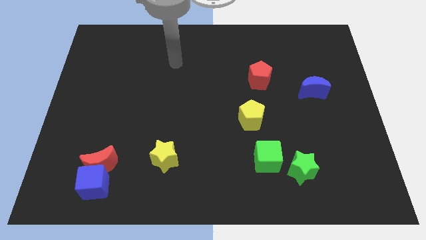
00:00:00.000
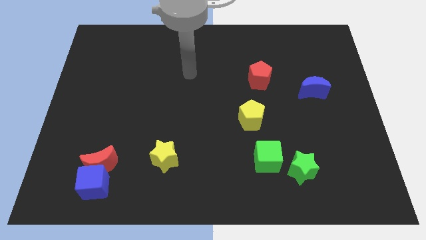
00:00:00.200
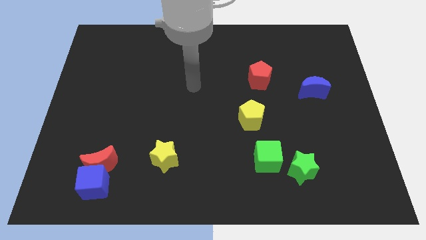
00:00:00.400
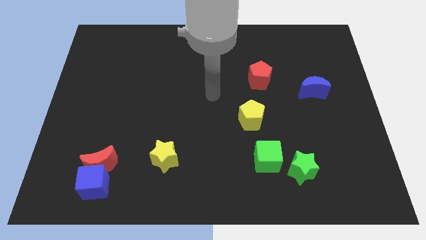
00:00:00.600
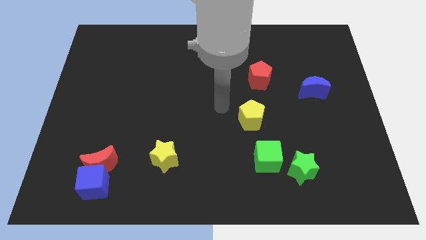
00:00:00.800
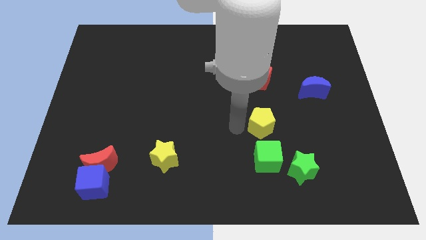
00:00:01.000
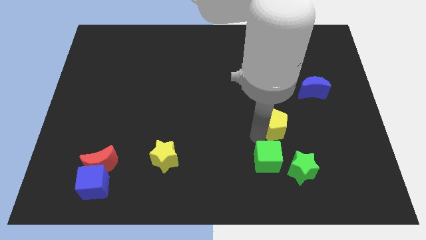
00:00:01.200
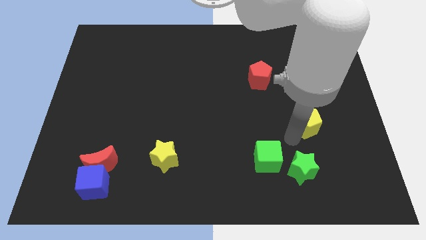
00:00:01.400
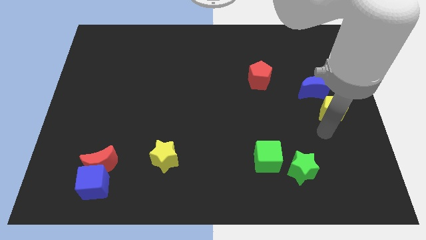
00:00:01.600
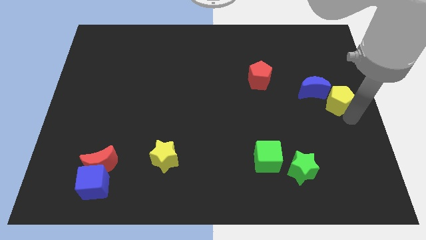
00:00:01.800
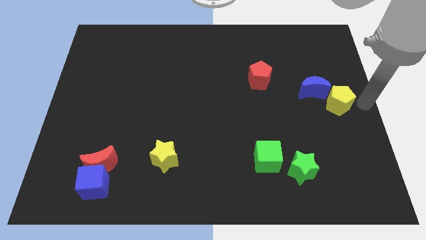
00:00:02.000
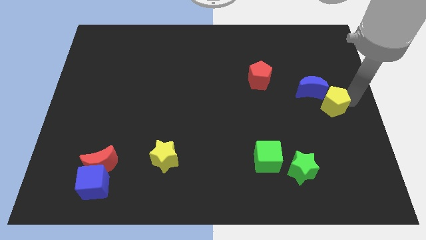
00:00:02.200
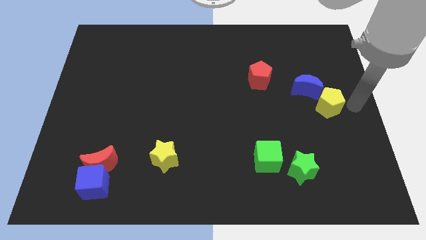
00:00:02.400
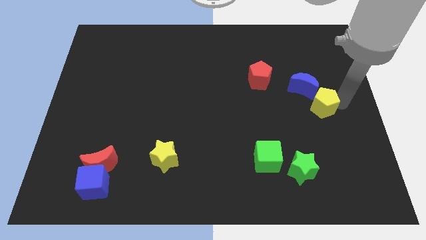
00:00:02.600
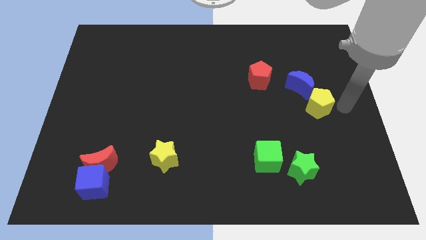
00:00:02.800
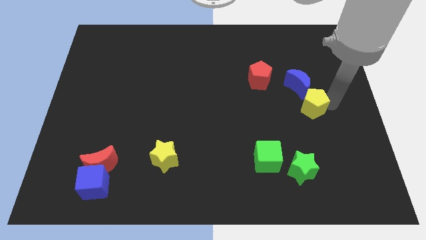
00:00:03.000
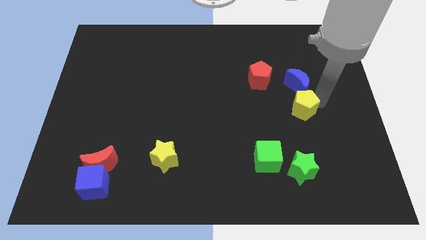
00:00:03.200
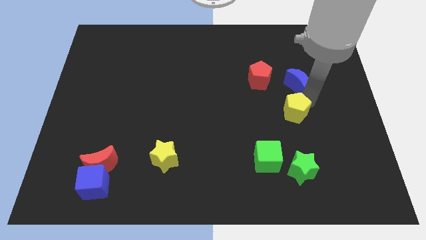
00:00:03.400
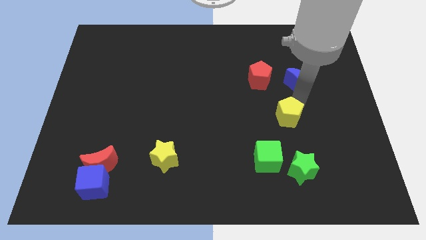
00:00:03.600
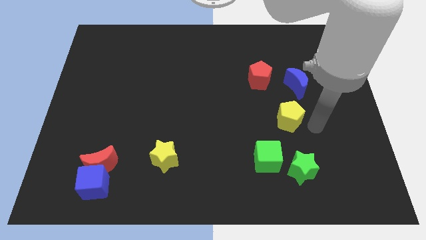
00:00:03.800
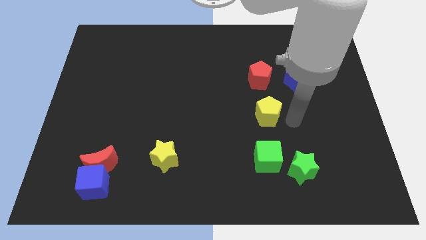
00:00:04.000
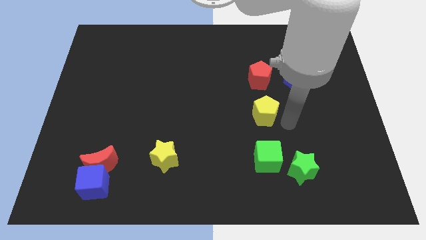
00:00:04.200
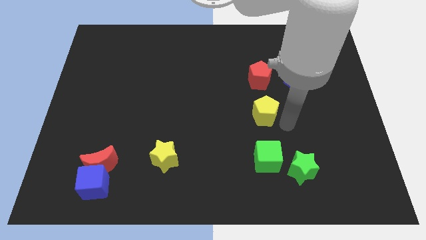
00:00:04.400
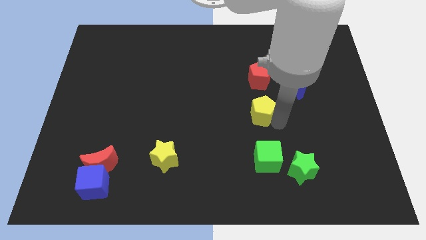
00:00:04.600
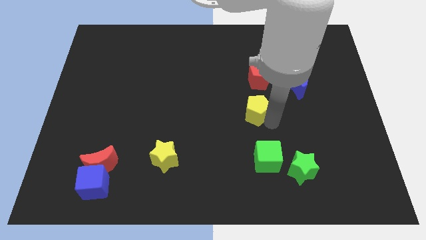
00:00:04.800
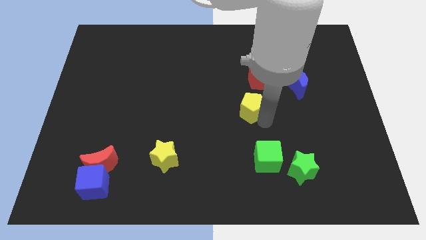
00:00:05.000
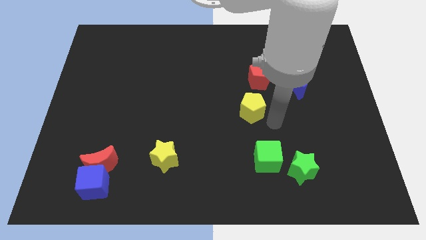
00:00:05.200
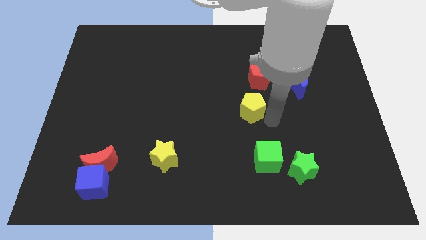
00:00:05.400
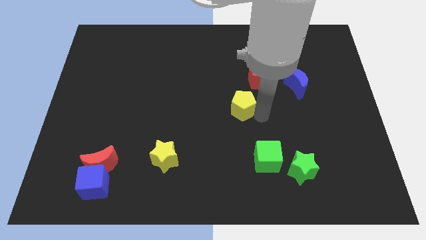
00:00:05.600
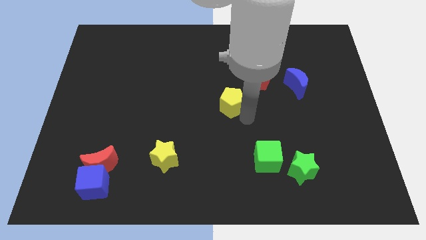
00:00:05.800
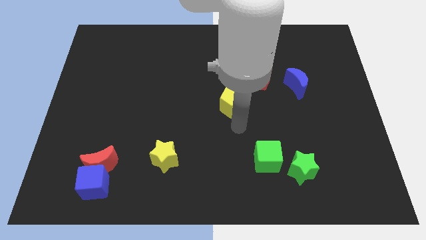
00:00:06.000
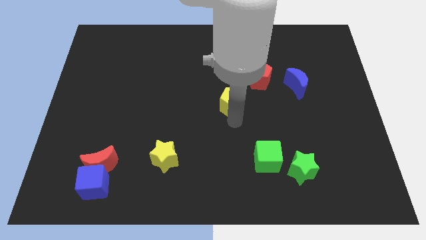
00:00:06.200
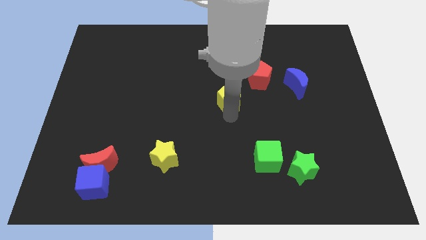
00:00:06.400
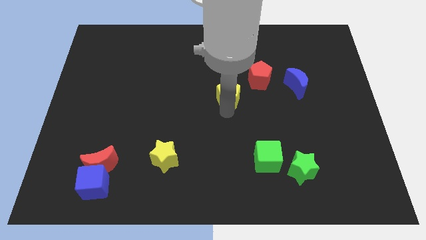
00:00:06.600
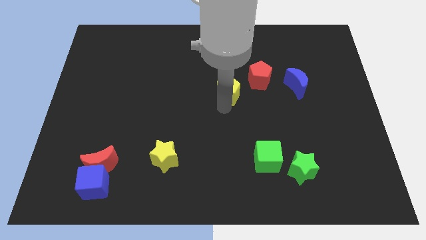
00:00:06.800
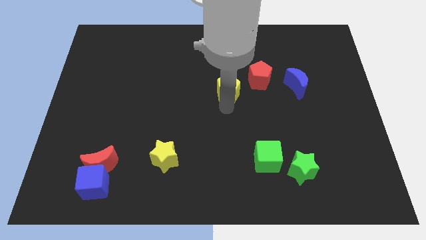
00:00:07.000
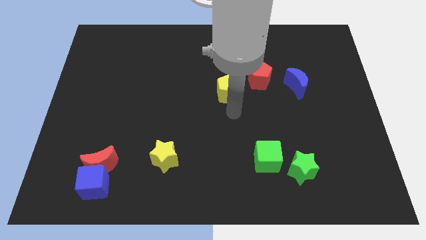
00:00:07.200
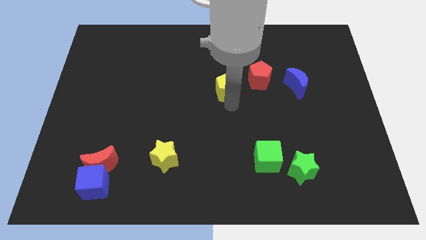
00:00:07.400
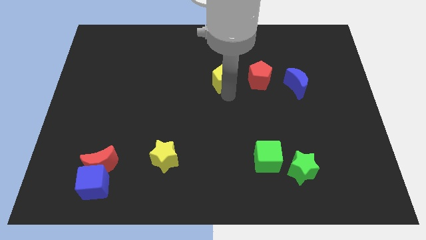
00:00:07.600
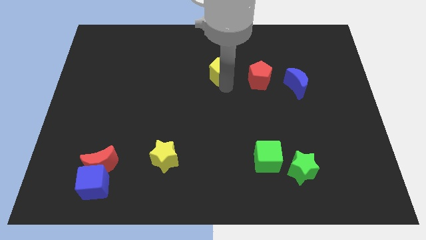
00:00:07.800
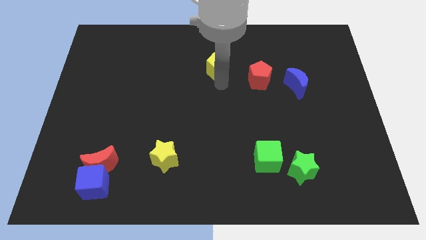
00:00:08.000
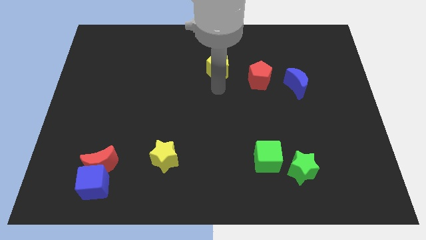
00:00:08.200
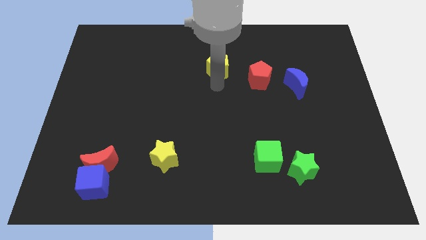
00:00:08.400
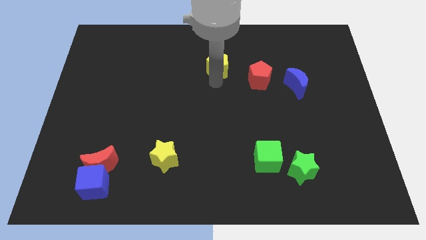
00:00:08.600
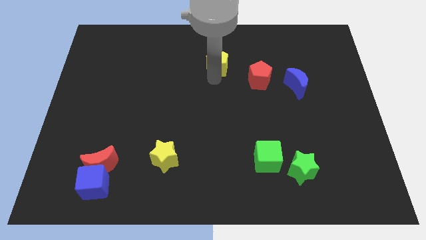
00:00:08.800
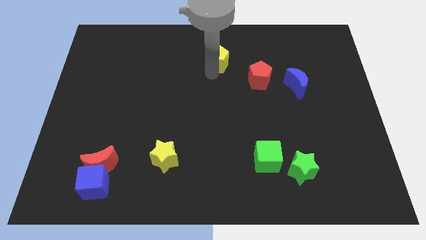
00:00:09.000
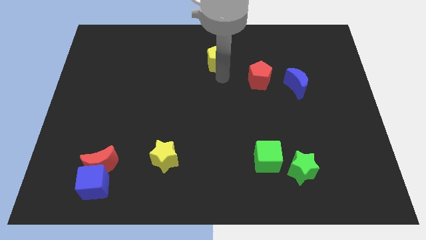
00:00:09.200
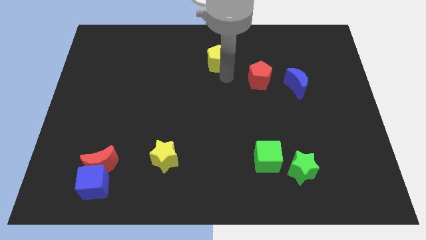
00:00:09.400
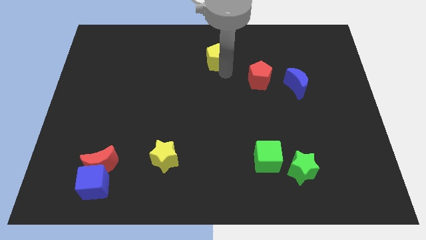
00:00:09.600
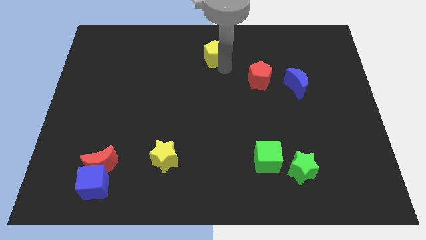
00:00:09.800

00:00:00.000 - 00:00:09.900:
move the yellow pentagon to the towards your base

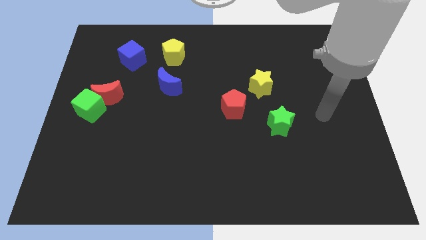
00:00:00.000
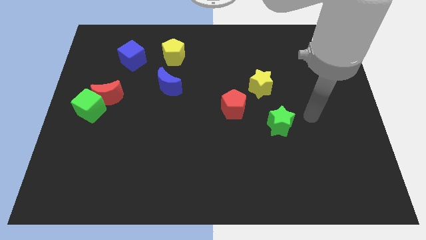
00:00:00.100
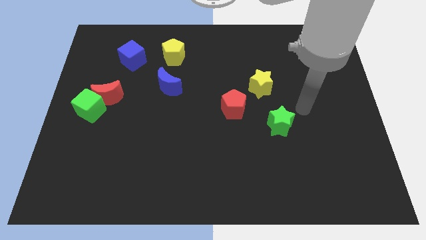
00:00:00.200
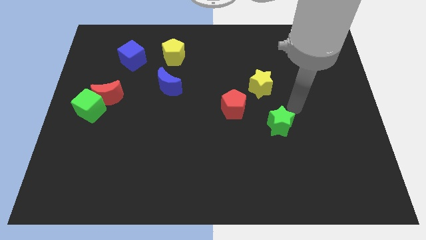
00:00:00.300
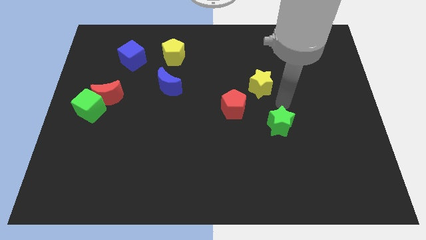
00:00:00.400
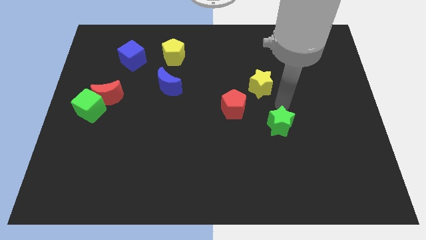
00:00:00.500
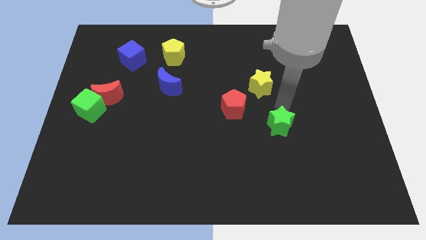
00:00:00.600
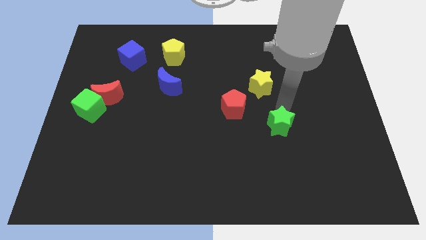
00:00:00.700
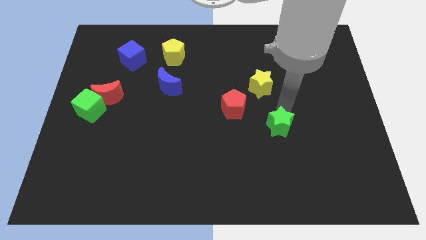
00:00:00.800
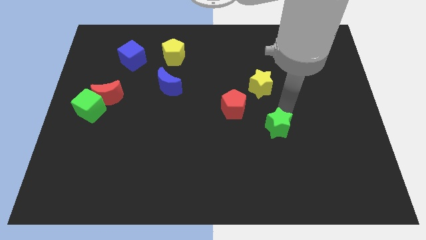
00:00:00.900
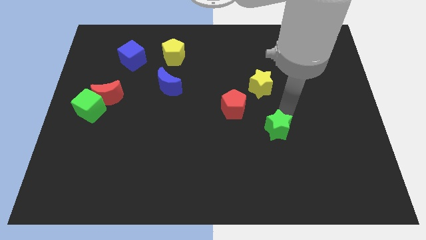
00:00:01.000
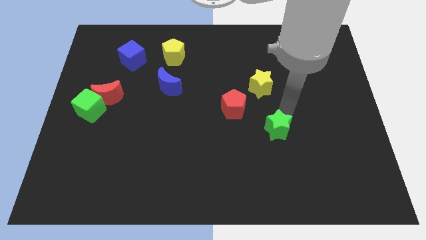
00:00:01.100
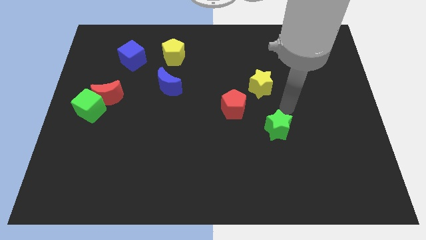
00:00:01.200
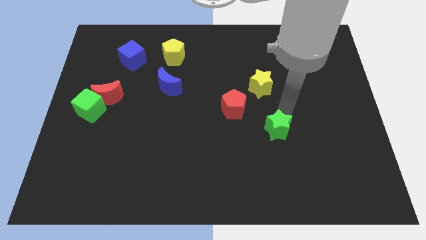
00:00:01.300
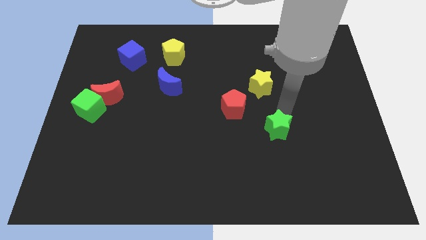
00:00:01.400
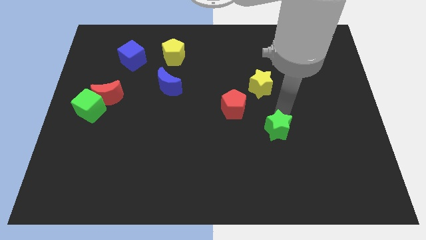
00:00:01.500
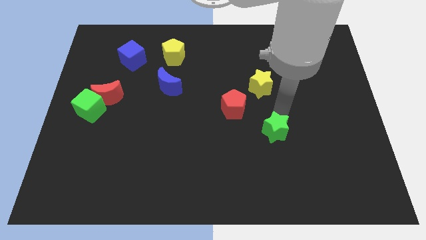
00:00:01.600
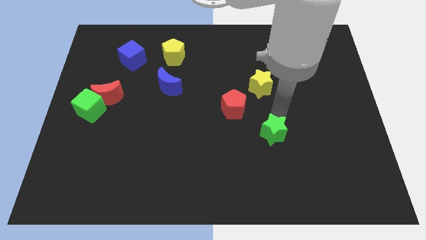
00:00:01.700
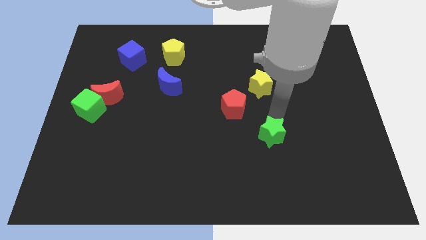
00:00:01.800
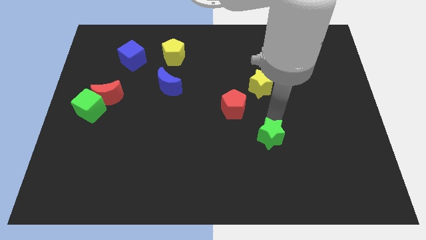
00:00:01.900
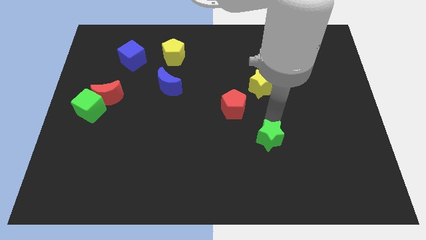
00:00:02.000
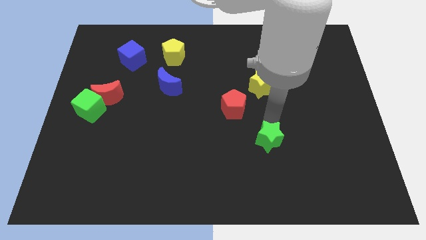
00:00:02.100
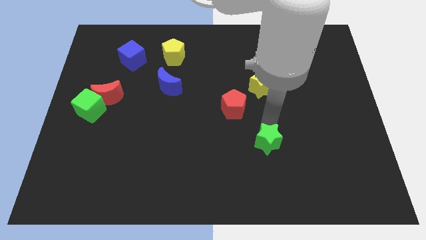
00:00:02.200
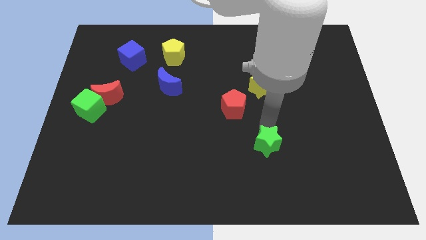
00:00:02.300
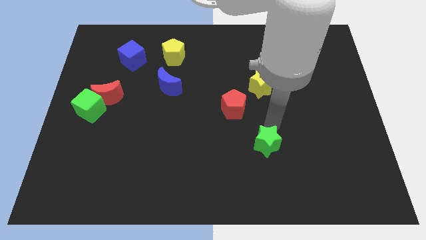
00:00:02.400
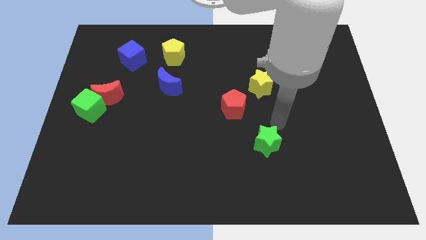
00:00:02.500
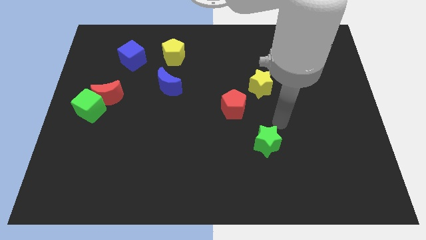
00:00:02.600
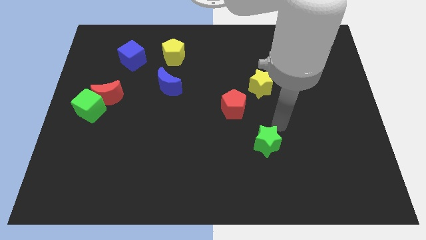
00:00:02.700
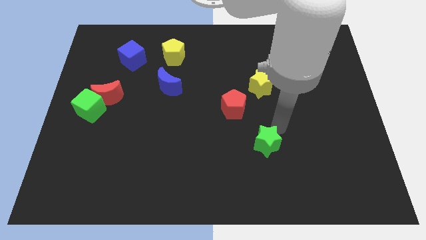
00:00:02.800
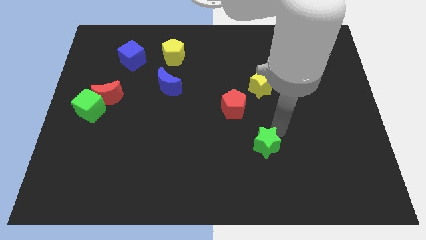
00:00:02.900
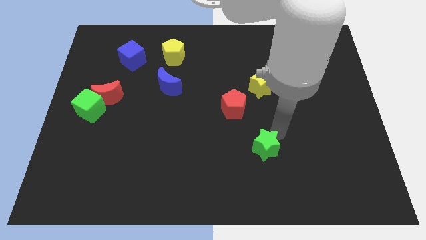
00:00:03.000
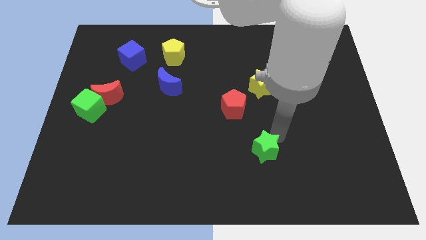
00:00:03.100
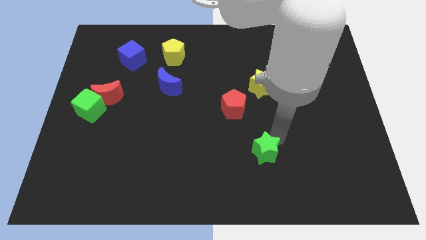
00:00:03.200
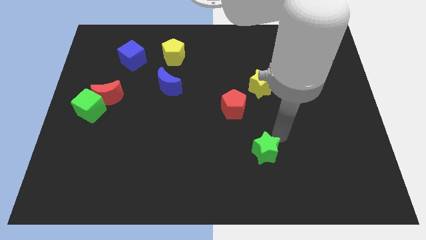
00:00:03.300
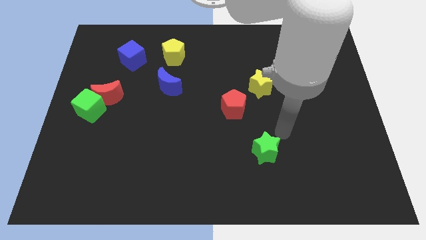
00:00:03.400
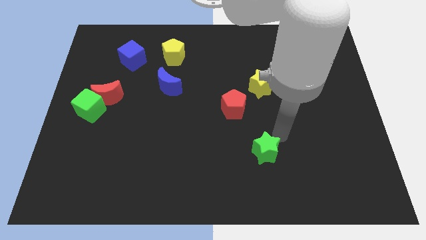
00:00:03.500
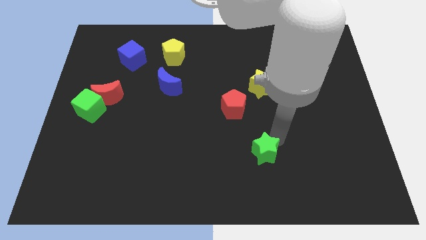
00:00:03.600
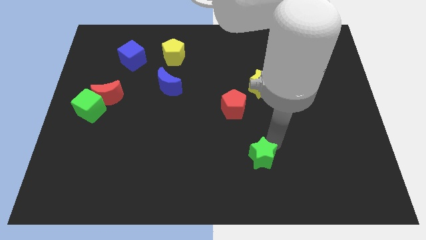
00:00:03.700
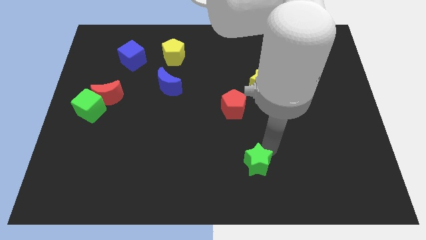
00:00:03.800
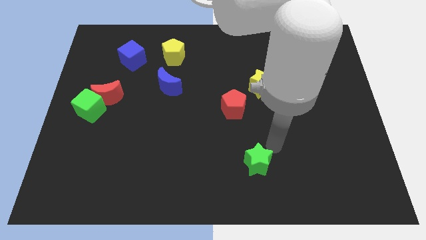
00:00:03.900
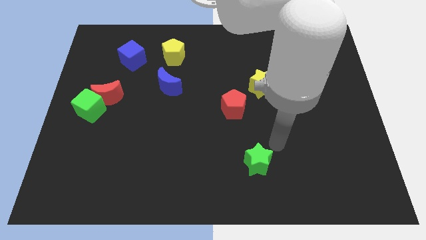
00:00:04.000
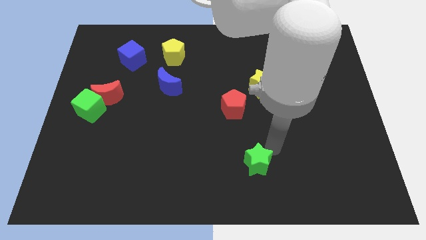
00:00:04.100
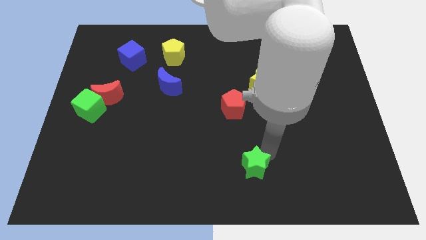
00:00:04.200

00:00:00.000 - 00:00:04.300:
put the green star to the bottom
